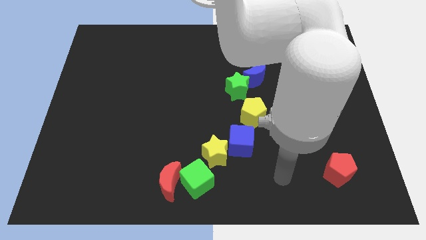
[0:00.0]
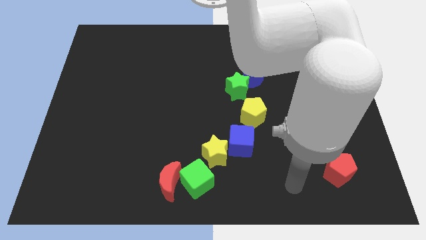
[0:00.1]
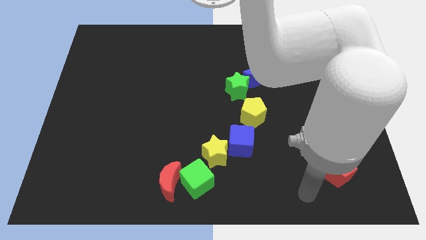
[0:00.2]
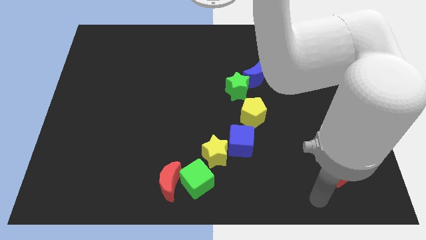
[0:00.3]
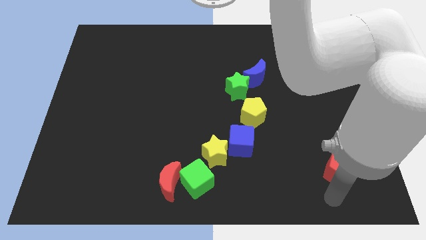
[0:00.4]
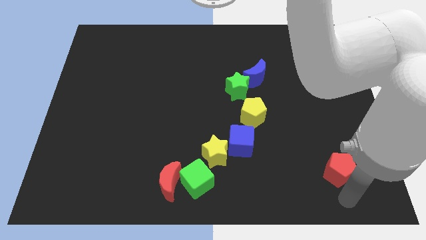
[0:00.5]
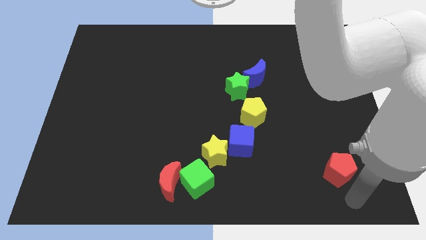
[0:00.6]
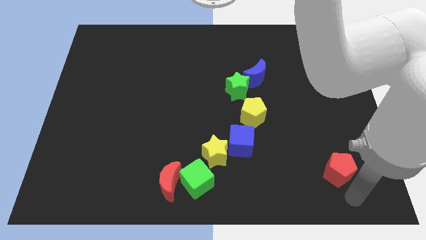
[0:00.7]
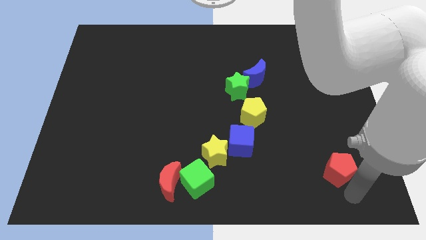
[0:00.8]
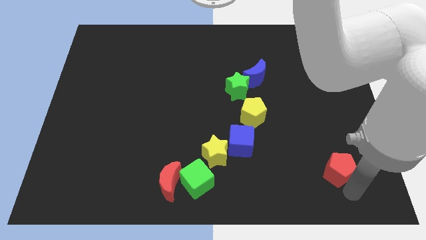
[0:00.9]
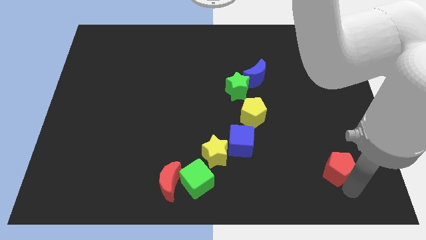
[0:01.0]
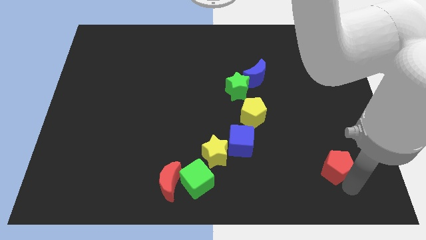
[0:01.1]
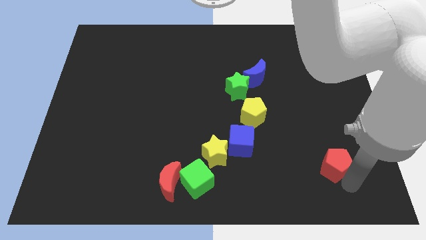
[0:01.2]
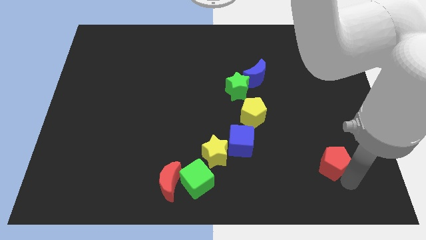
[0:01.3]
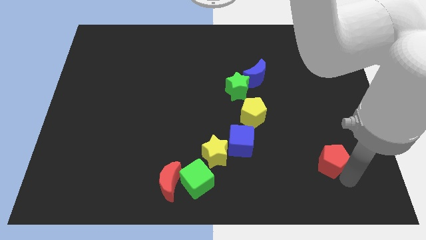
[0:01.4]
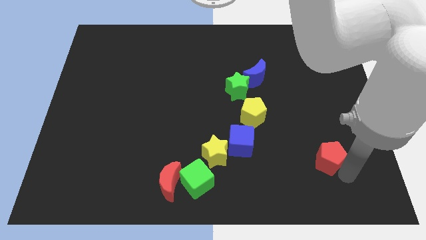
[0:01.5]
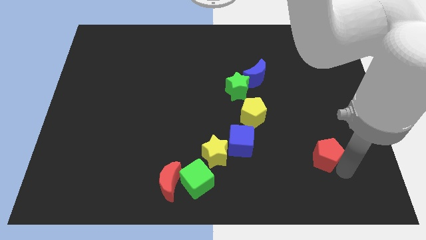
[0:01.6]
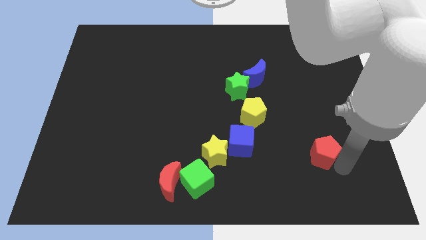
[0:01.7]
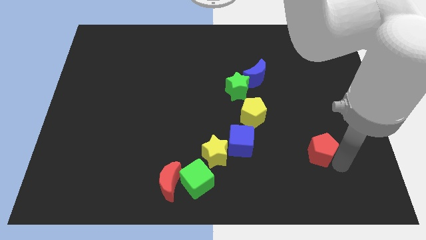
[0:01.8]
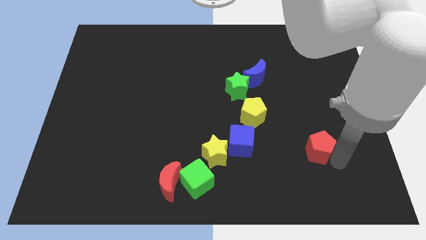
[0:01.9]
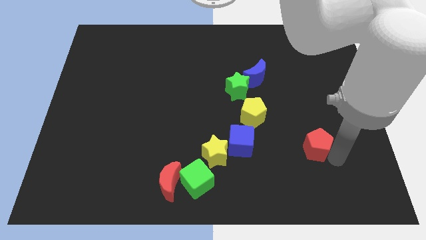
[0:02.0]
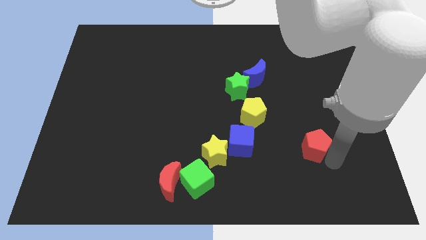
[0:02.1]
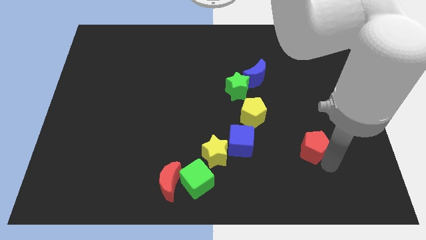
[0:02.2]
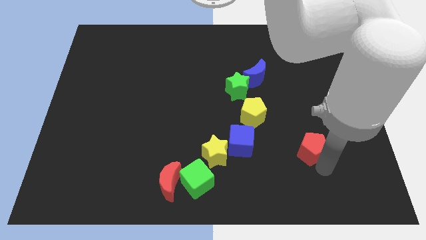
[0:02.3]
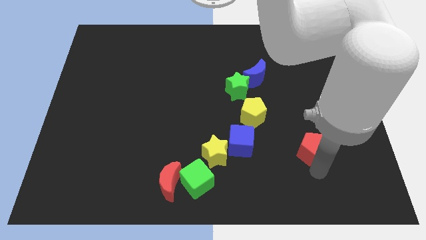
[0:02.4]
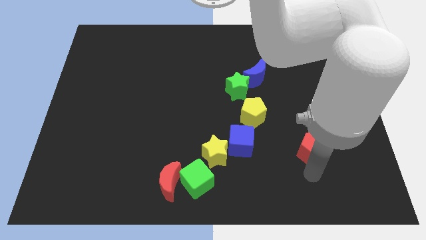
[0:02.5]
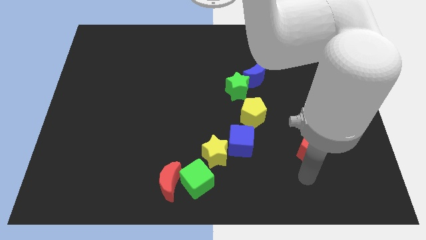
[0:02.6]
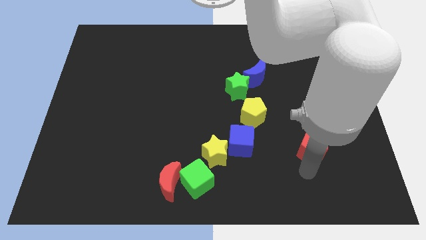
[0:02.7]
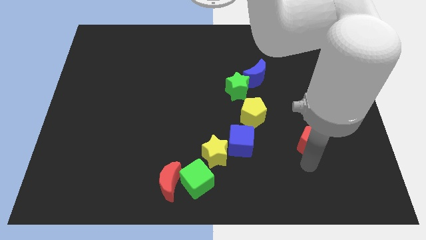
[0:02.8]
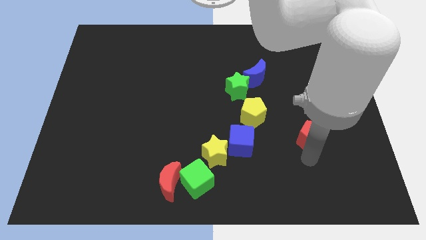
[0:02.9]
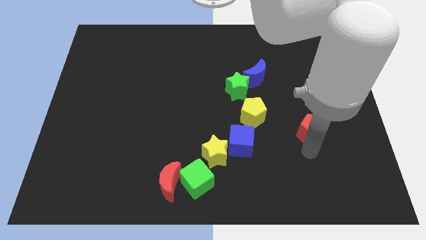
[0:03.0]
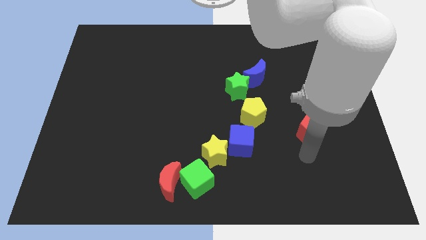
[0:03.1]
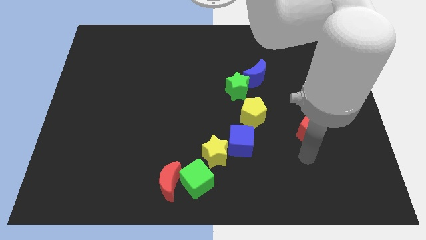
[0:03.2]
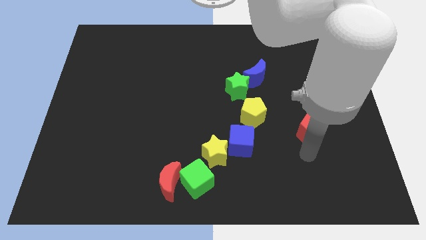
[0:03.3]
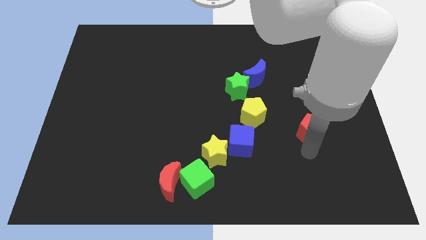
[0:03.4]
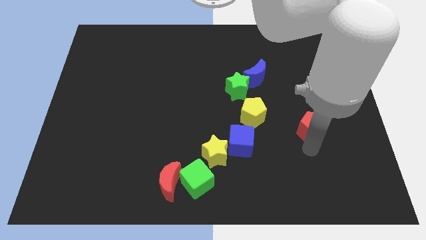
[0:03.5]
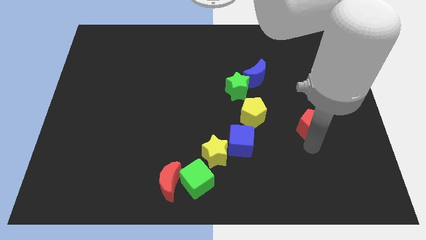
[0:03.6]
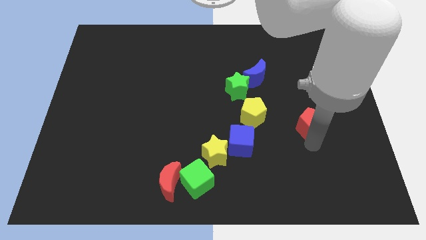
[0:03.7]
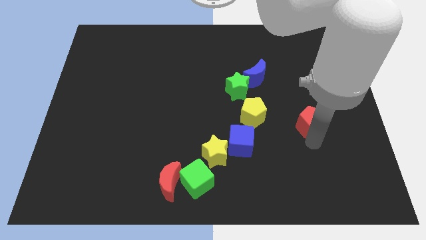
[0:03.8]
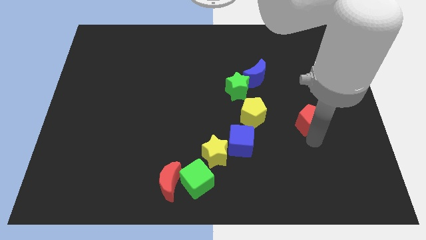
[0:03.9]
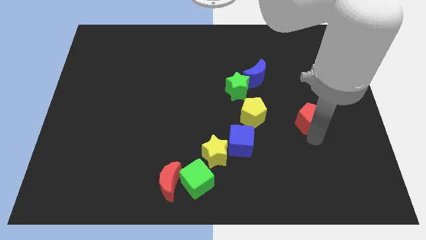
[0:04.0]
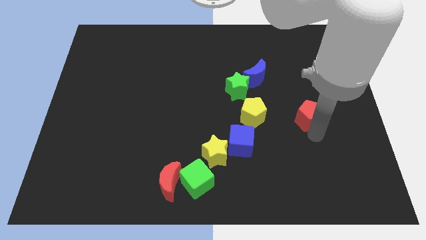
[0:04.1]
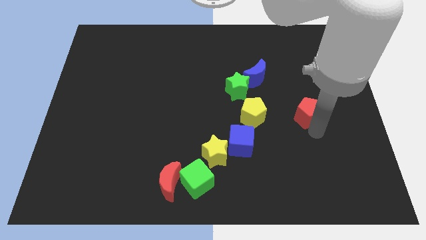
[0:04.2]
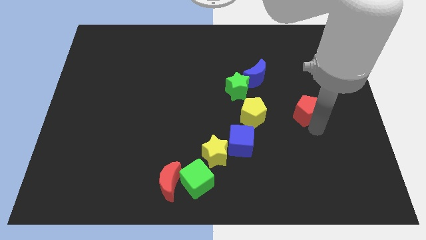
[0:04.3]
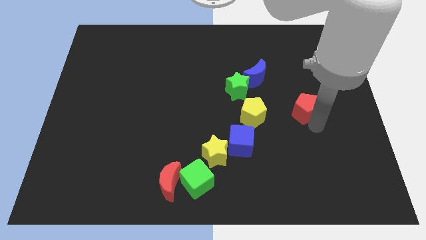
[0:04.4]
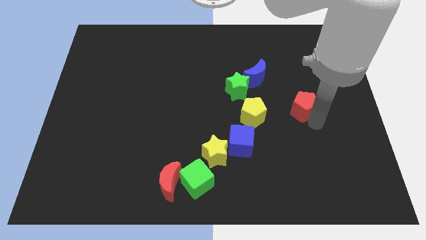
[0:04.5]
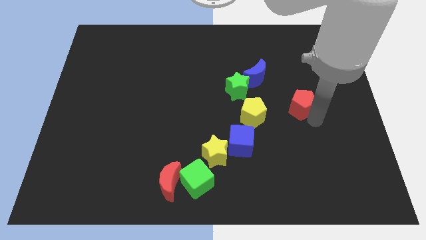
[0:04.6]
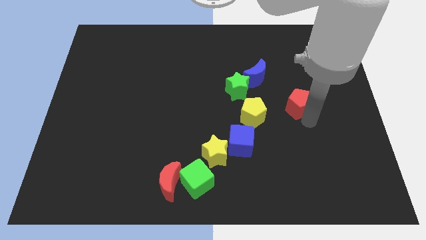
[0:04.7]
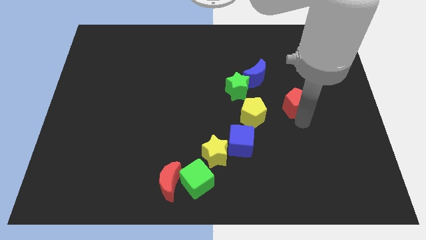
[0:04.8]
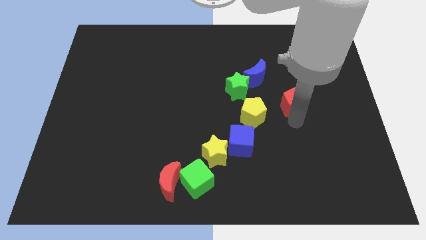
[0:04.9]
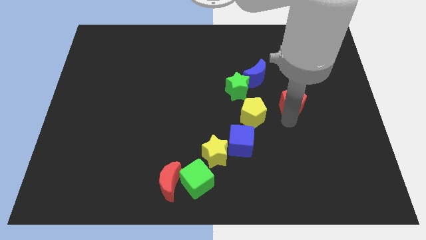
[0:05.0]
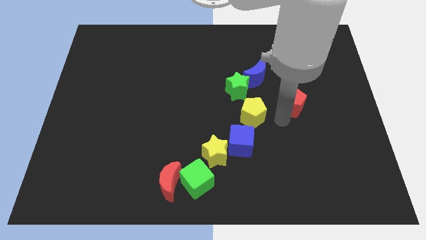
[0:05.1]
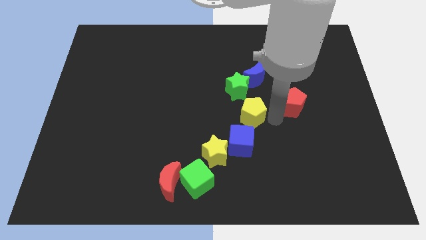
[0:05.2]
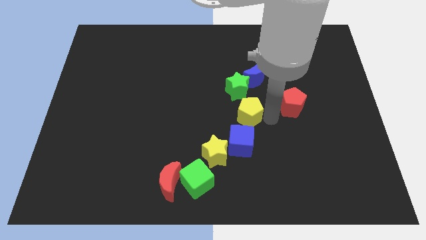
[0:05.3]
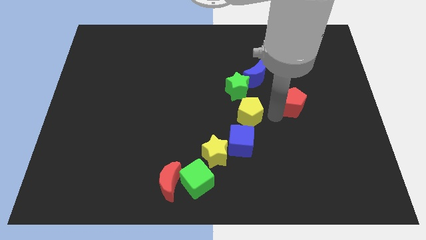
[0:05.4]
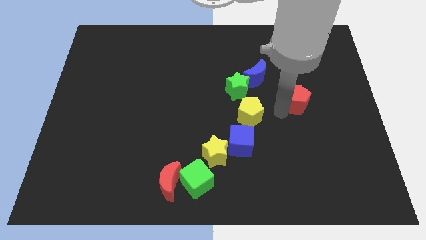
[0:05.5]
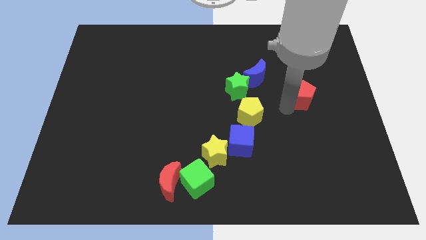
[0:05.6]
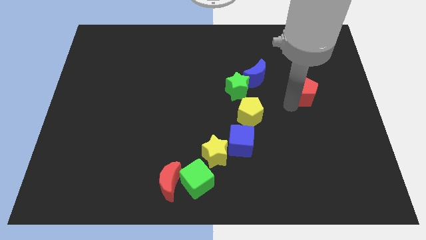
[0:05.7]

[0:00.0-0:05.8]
move the red pentagon up

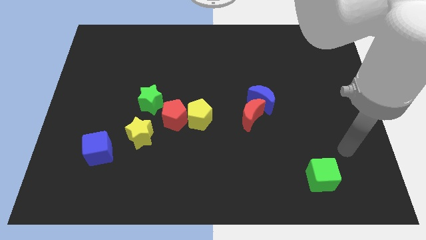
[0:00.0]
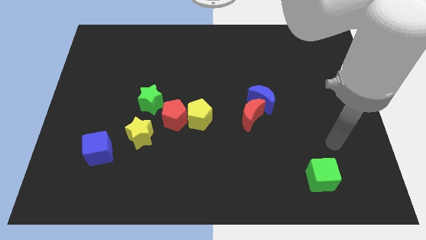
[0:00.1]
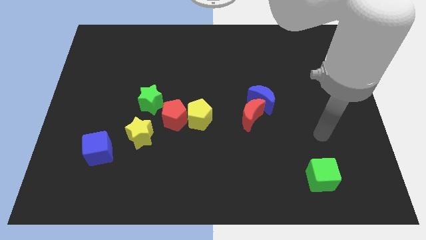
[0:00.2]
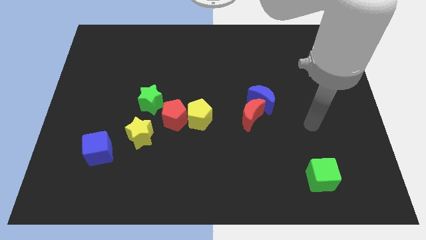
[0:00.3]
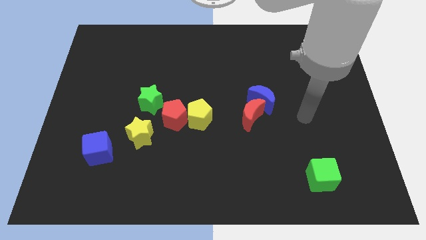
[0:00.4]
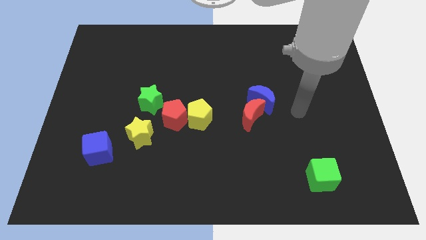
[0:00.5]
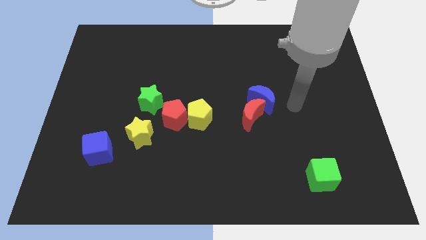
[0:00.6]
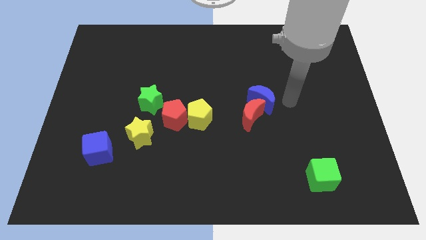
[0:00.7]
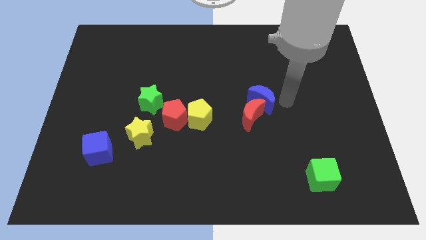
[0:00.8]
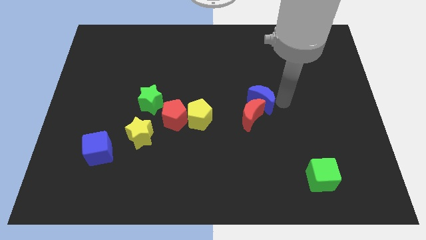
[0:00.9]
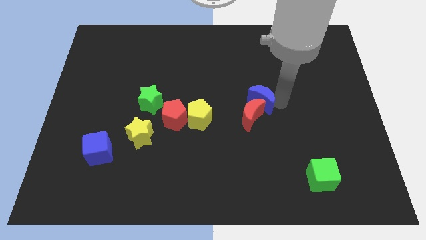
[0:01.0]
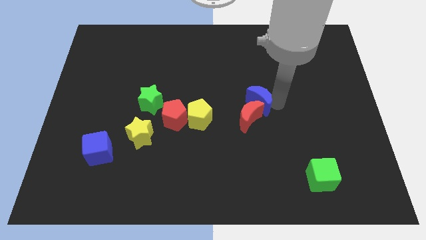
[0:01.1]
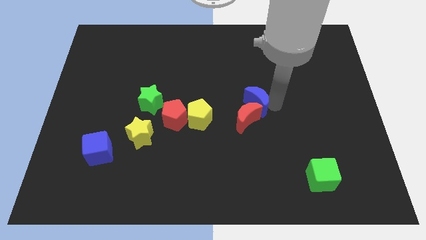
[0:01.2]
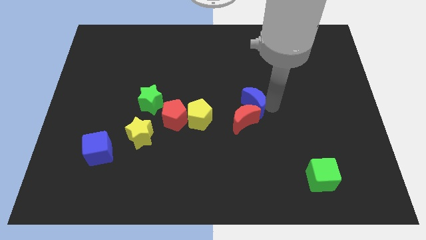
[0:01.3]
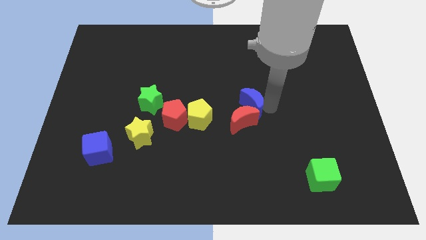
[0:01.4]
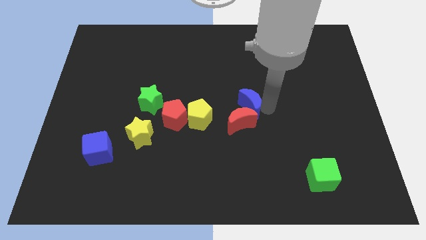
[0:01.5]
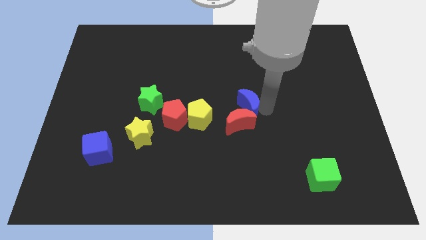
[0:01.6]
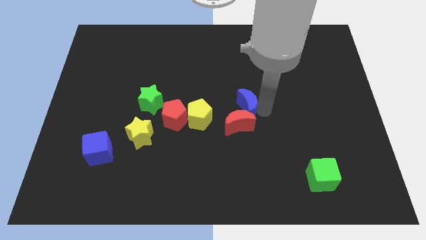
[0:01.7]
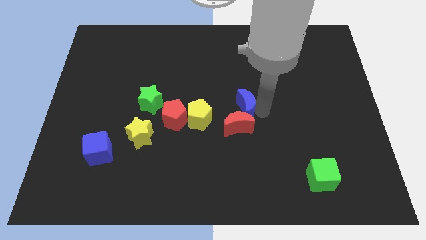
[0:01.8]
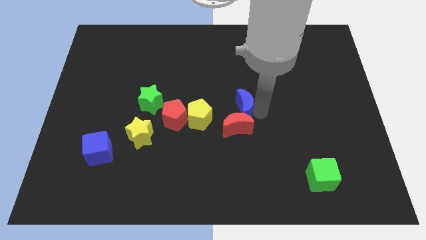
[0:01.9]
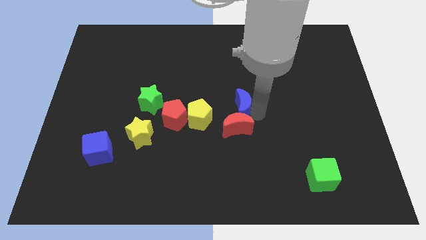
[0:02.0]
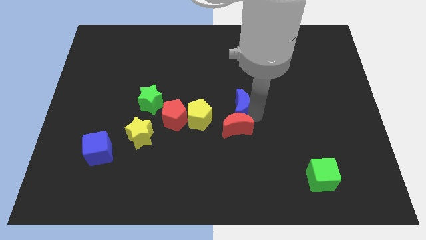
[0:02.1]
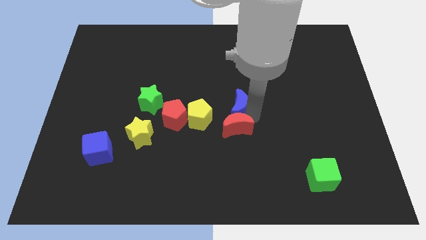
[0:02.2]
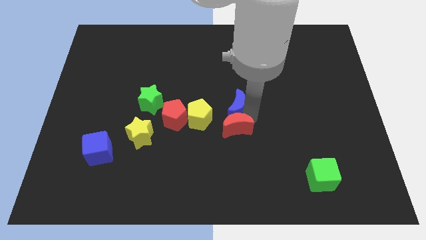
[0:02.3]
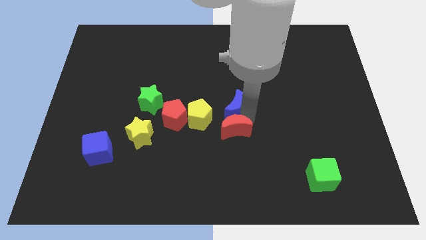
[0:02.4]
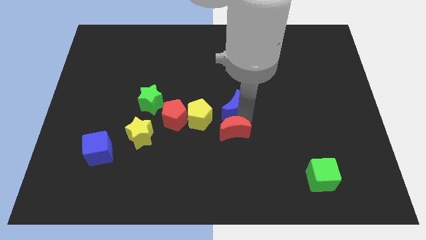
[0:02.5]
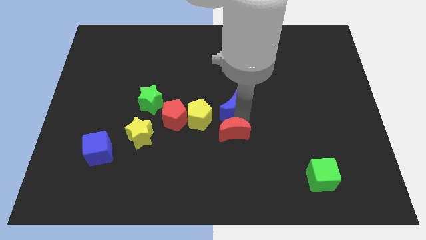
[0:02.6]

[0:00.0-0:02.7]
slightly move the blue moon to the left
